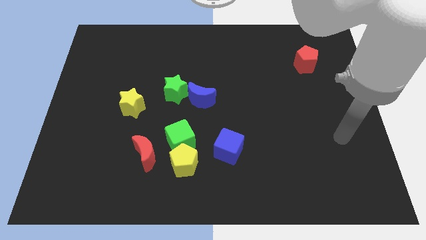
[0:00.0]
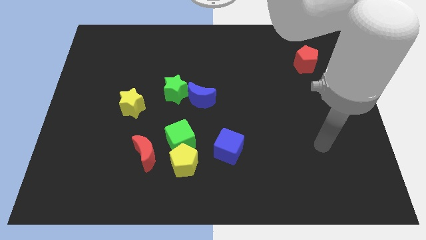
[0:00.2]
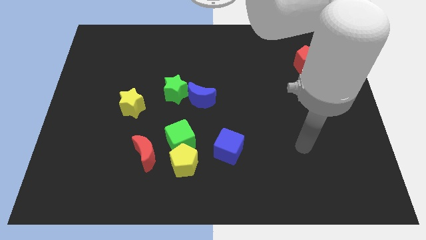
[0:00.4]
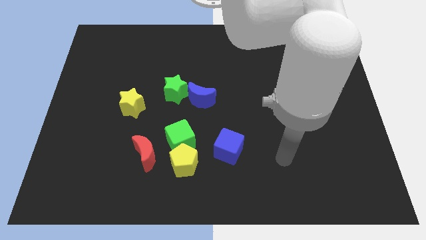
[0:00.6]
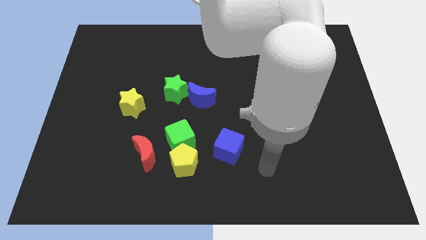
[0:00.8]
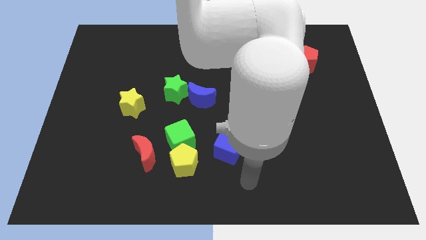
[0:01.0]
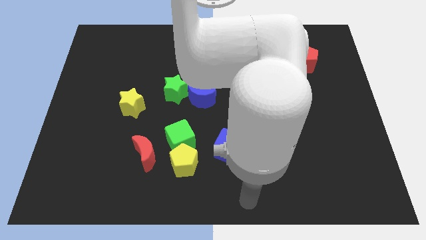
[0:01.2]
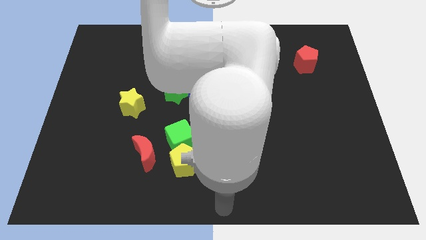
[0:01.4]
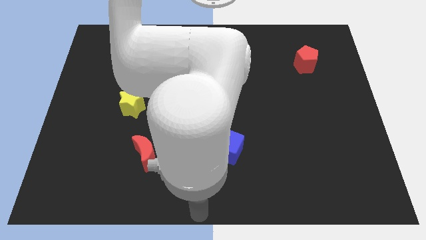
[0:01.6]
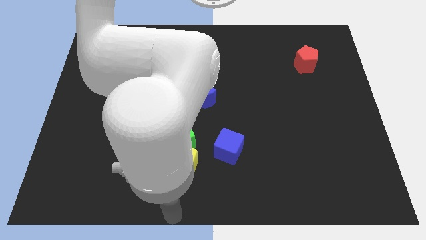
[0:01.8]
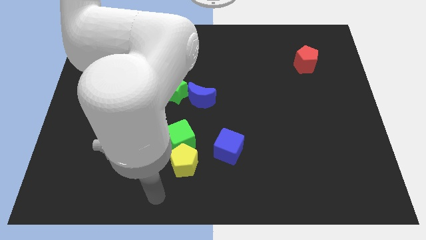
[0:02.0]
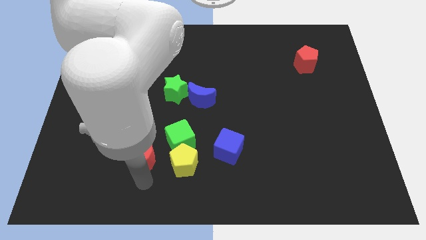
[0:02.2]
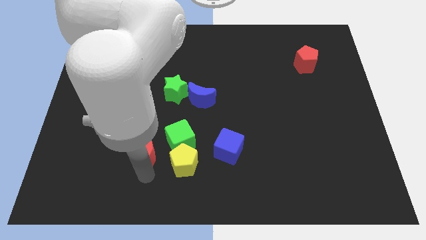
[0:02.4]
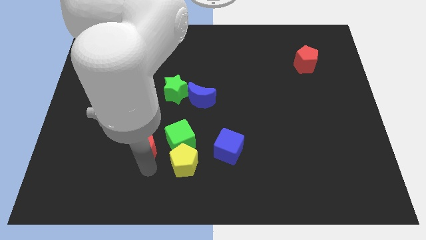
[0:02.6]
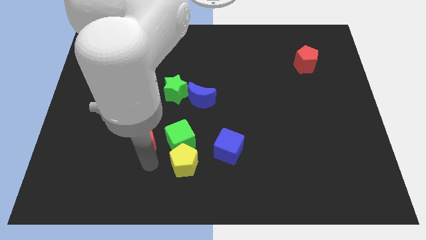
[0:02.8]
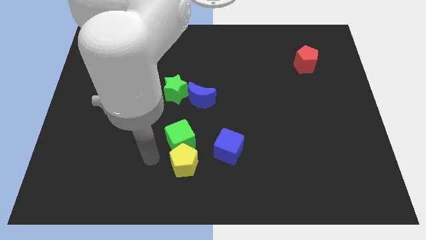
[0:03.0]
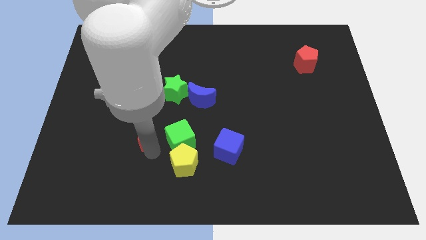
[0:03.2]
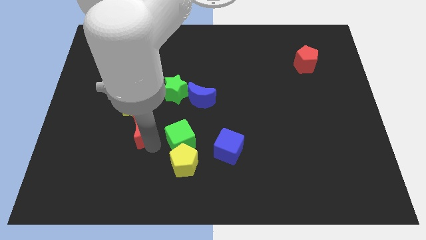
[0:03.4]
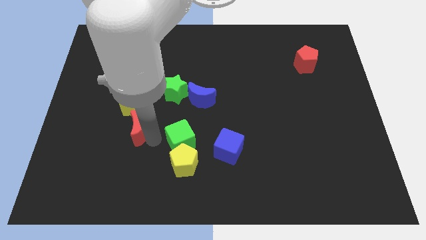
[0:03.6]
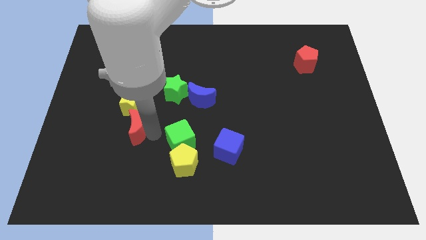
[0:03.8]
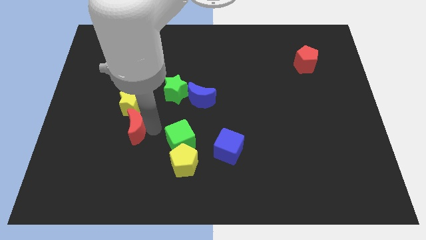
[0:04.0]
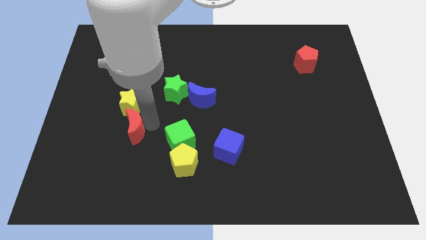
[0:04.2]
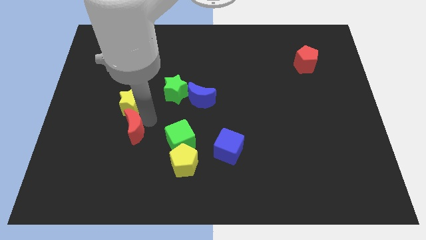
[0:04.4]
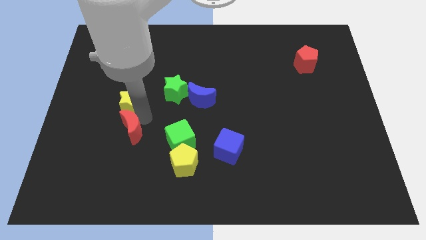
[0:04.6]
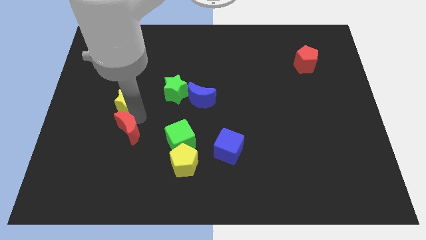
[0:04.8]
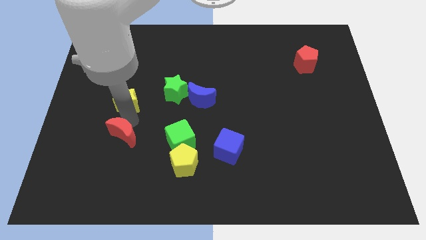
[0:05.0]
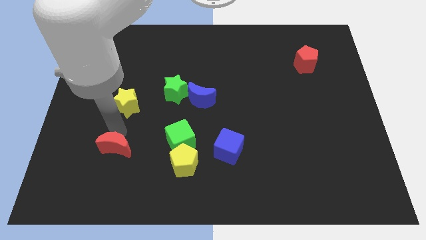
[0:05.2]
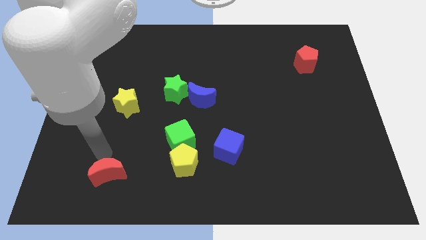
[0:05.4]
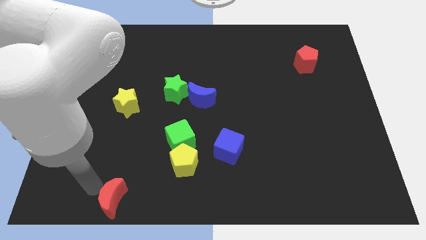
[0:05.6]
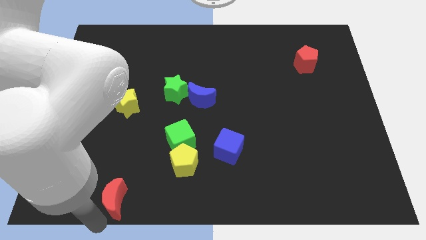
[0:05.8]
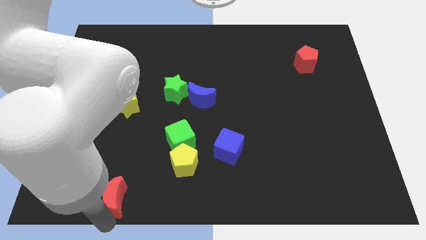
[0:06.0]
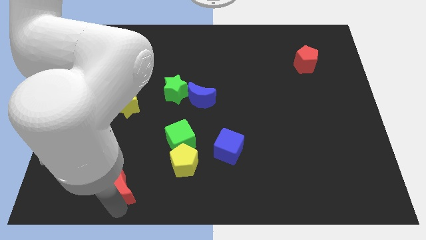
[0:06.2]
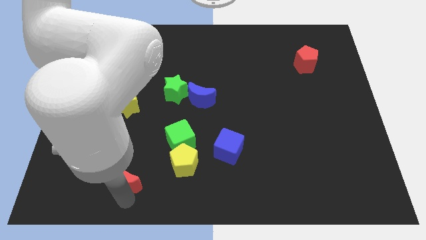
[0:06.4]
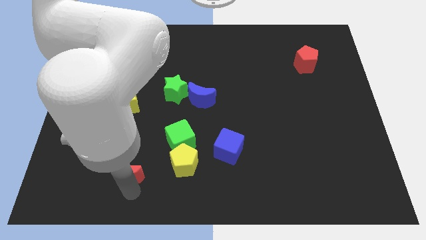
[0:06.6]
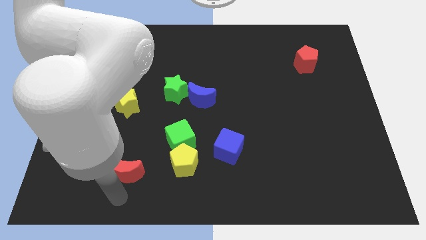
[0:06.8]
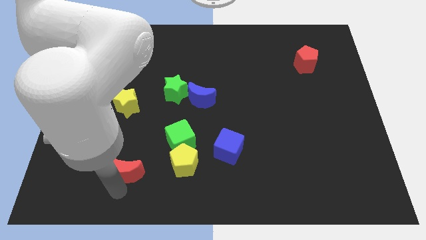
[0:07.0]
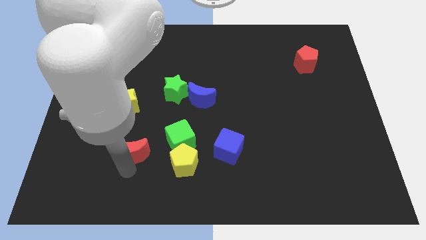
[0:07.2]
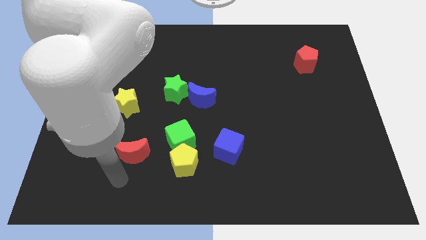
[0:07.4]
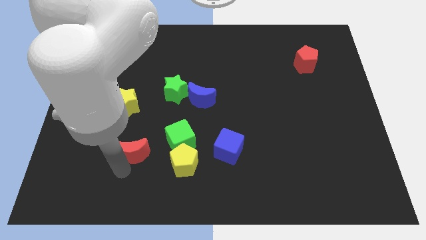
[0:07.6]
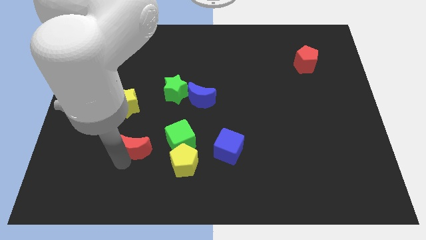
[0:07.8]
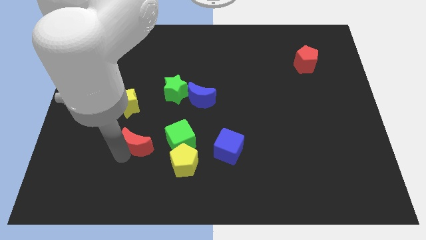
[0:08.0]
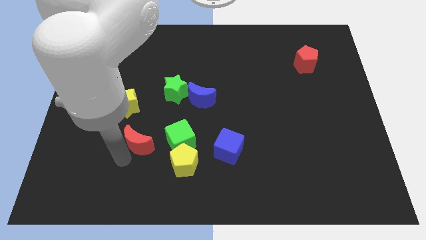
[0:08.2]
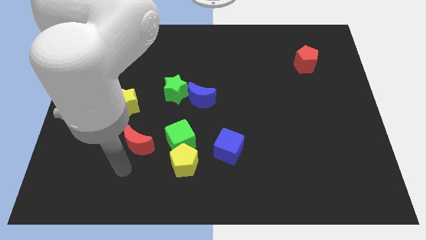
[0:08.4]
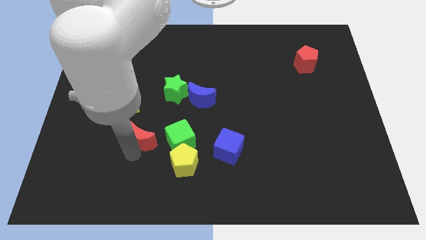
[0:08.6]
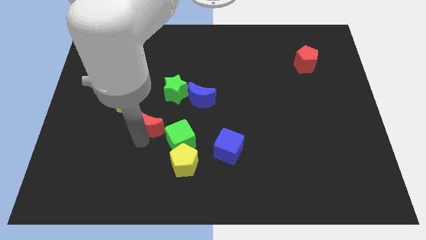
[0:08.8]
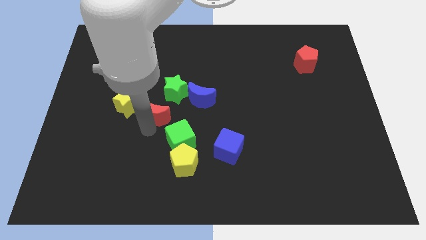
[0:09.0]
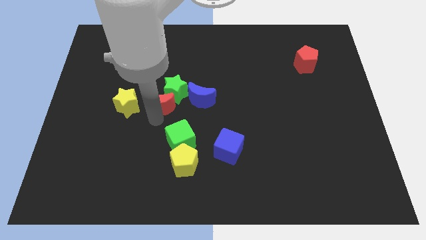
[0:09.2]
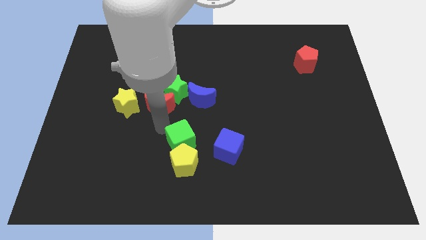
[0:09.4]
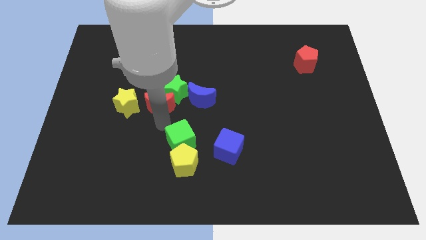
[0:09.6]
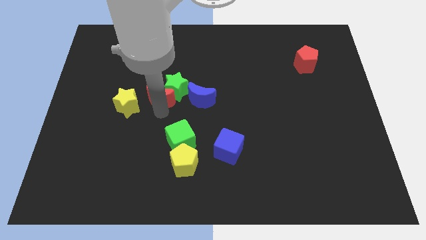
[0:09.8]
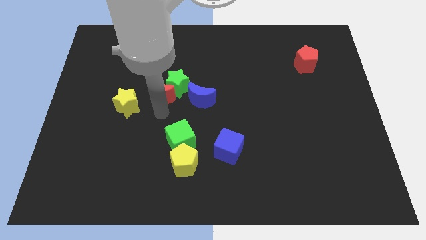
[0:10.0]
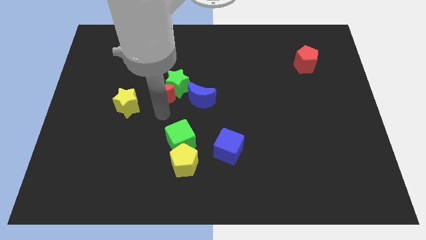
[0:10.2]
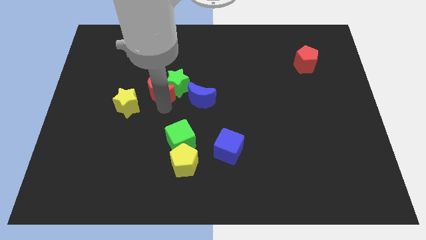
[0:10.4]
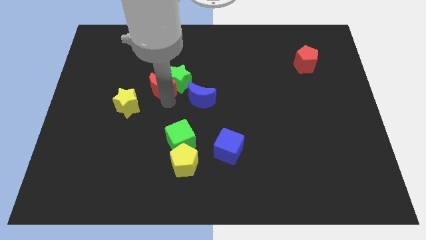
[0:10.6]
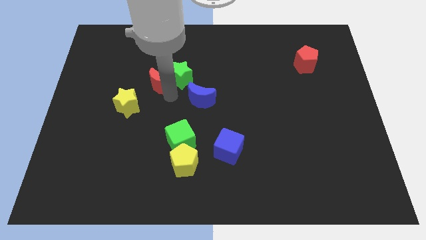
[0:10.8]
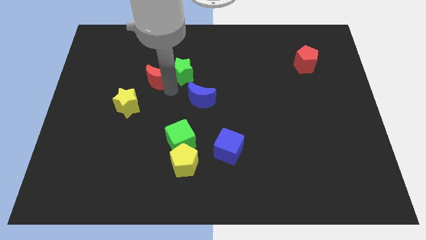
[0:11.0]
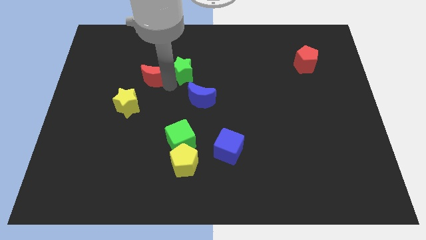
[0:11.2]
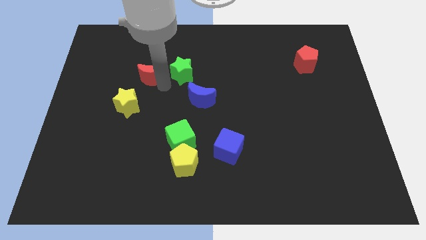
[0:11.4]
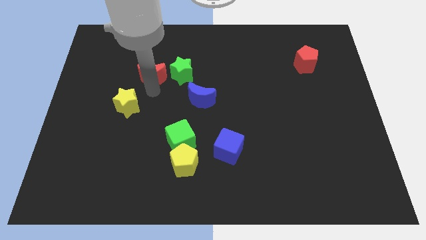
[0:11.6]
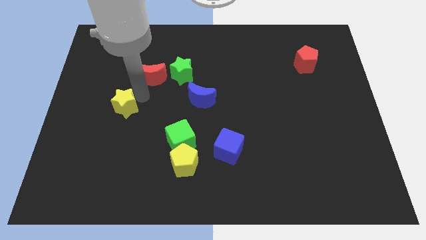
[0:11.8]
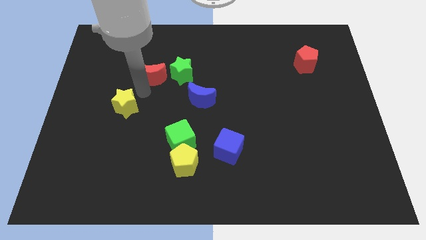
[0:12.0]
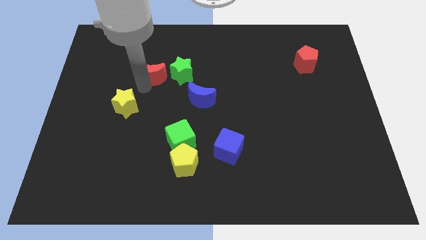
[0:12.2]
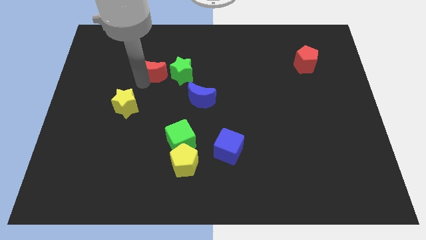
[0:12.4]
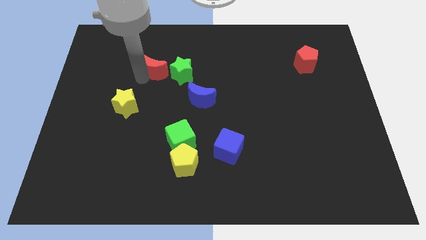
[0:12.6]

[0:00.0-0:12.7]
move the red moon diagonally up and to the left of the green star

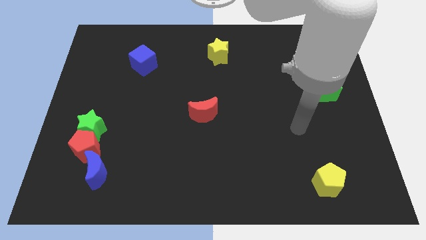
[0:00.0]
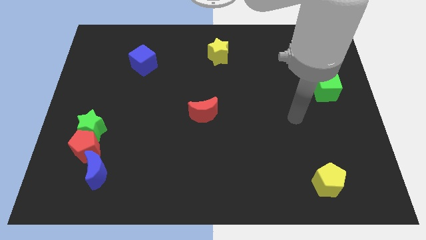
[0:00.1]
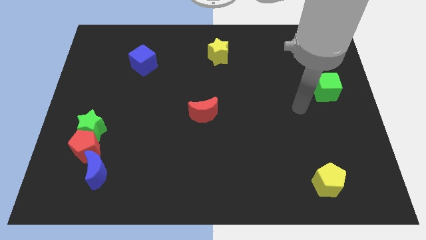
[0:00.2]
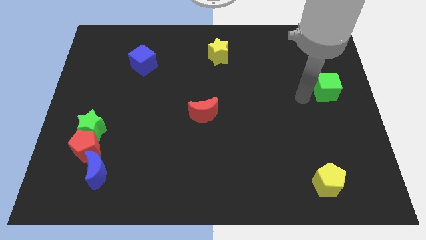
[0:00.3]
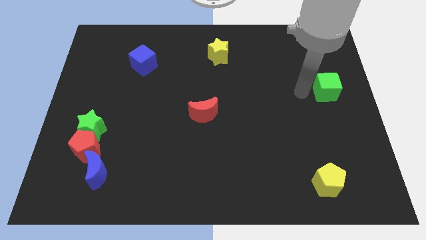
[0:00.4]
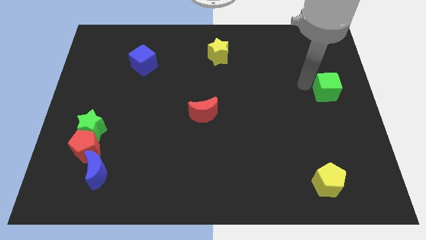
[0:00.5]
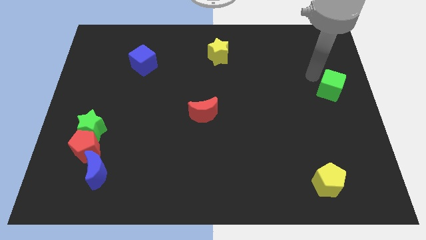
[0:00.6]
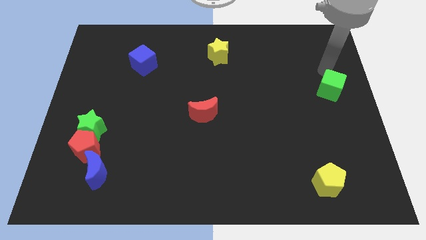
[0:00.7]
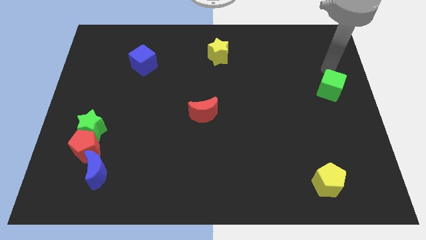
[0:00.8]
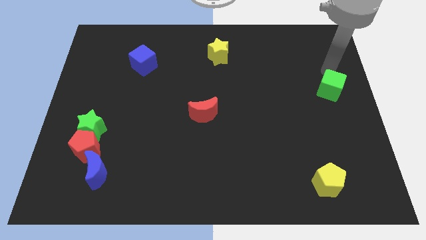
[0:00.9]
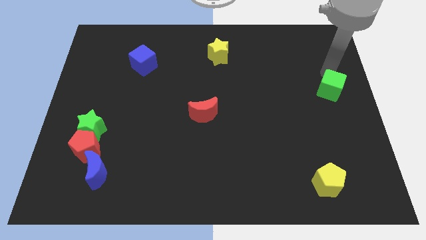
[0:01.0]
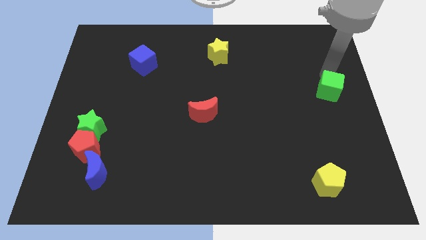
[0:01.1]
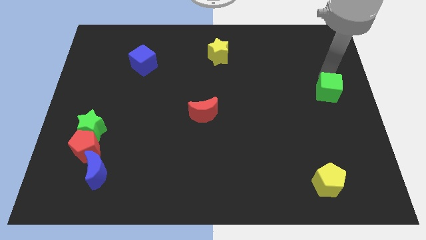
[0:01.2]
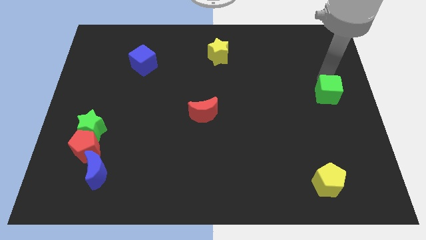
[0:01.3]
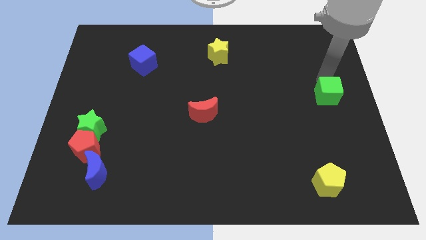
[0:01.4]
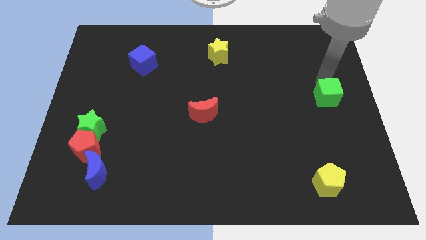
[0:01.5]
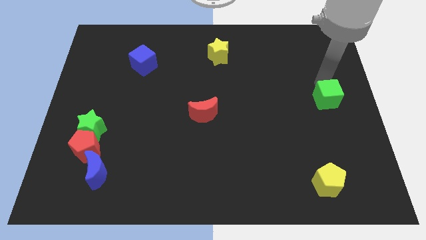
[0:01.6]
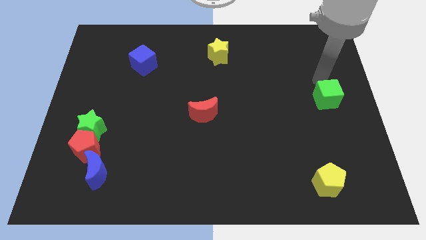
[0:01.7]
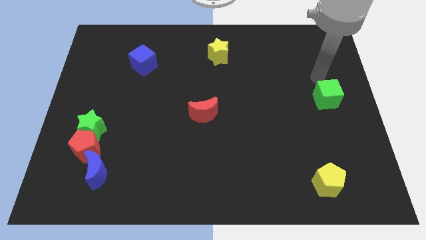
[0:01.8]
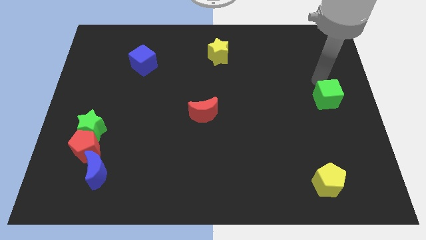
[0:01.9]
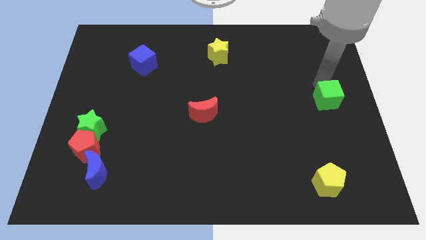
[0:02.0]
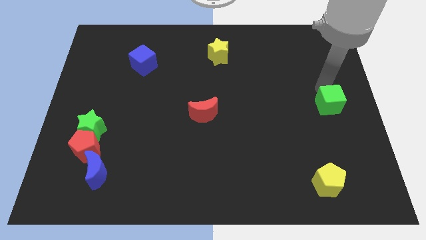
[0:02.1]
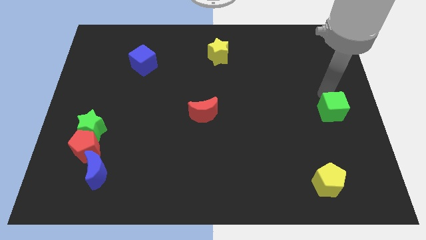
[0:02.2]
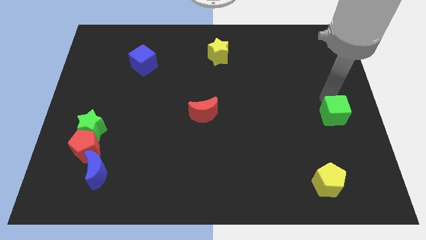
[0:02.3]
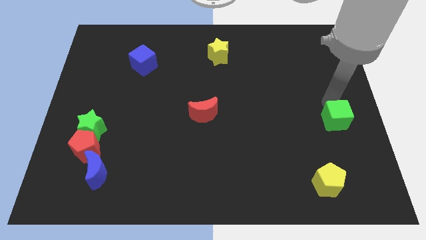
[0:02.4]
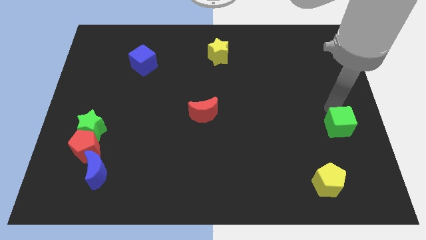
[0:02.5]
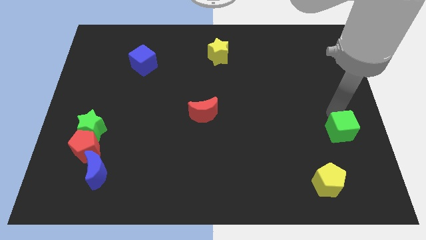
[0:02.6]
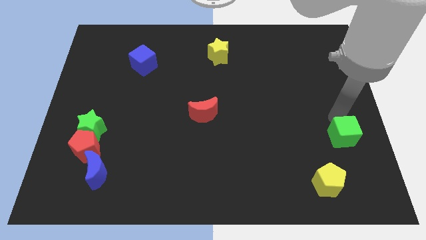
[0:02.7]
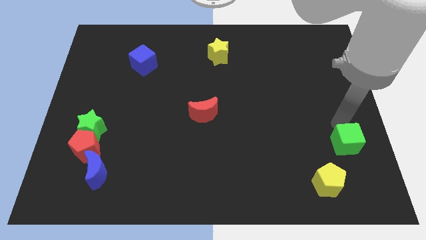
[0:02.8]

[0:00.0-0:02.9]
put the green cube diagonally up and to the right of the yellow pentagon
